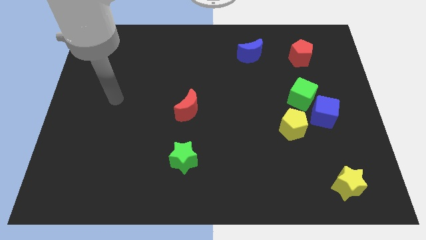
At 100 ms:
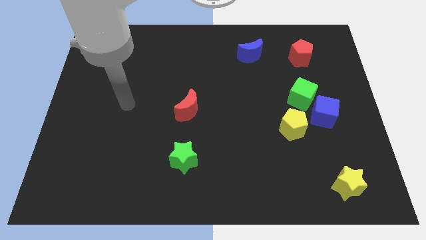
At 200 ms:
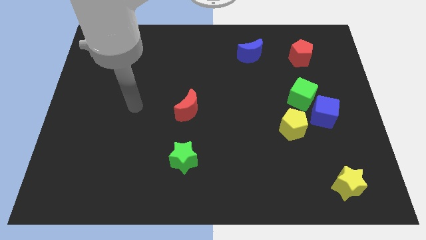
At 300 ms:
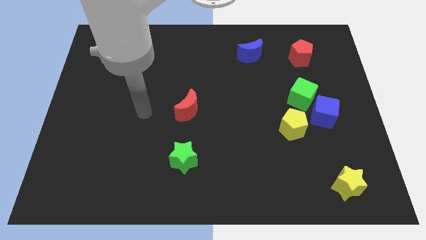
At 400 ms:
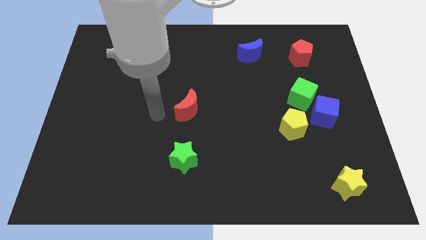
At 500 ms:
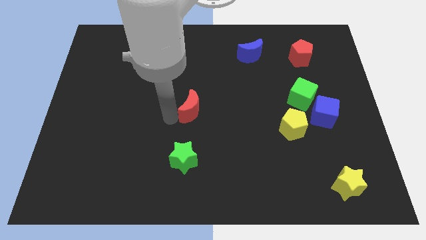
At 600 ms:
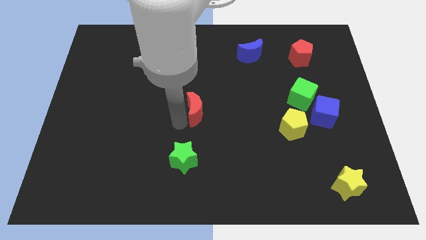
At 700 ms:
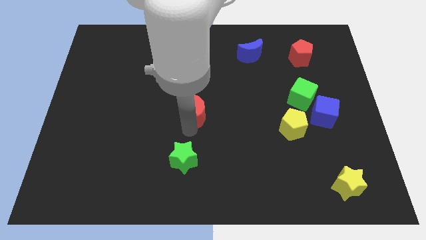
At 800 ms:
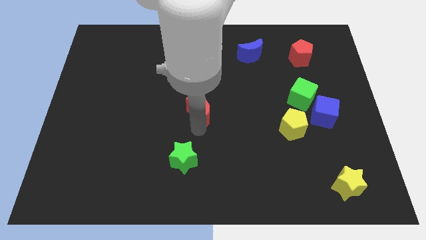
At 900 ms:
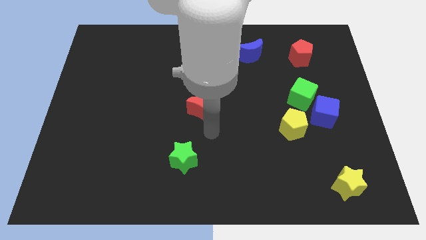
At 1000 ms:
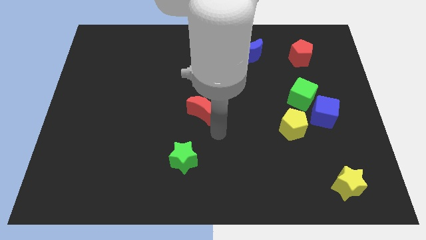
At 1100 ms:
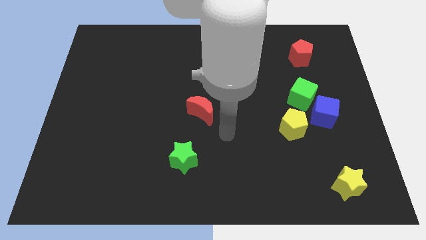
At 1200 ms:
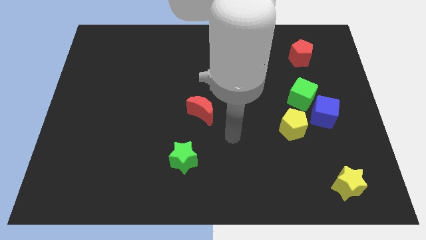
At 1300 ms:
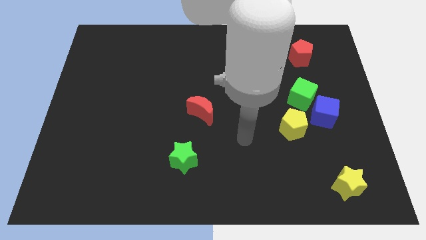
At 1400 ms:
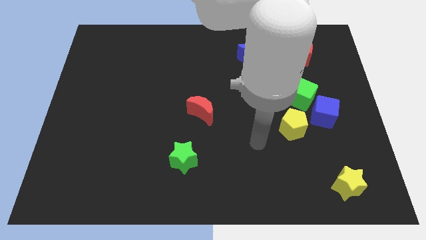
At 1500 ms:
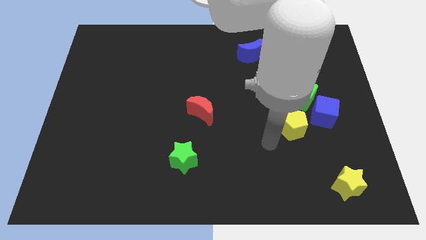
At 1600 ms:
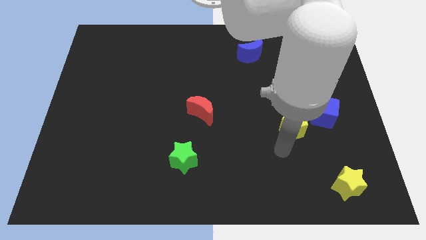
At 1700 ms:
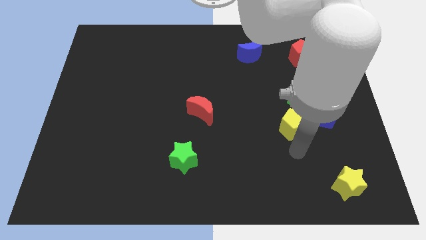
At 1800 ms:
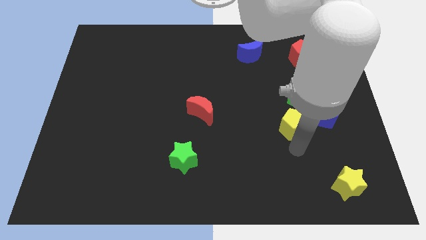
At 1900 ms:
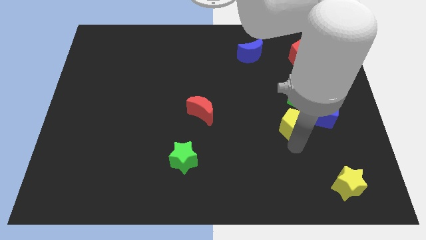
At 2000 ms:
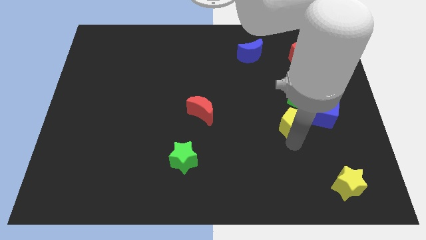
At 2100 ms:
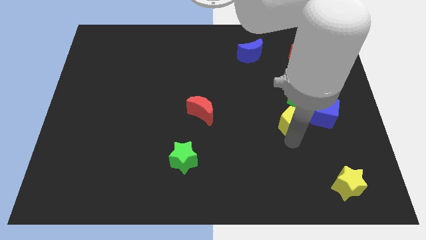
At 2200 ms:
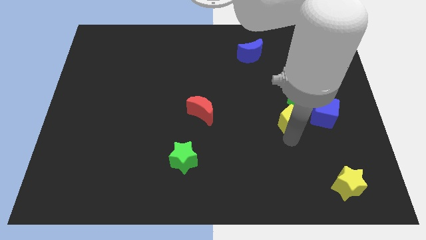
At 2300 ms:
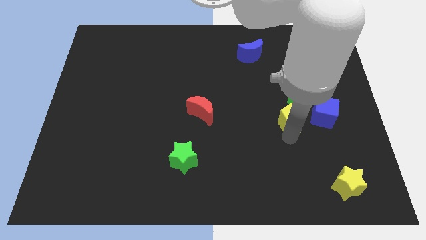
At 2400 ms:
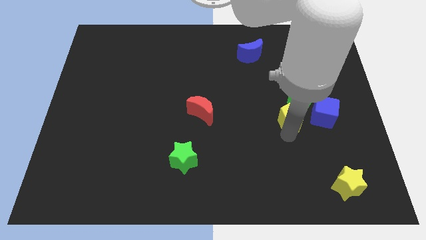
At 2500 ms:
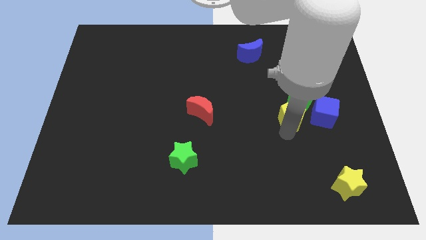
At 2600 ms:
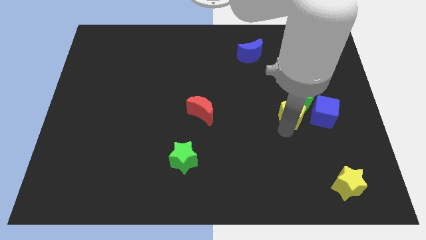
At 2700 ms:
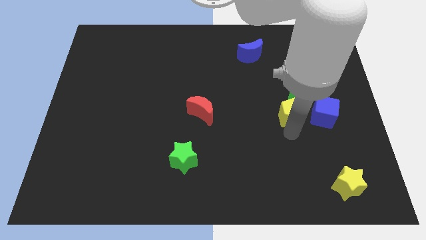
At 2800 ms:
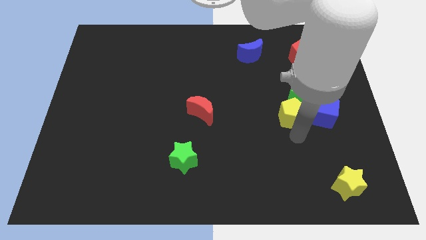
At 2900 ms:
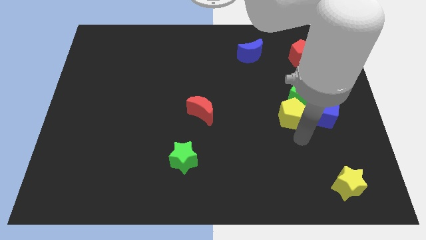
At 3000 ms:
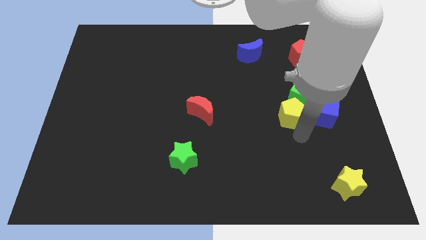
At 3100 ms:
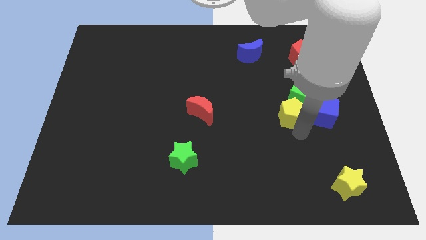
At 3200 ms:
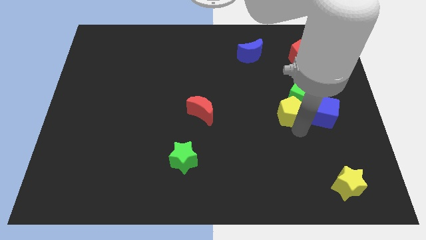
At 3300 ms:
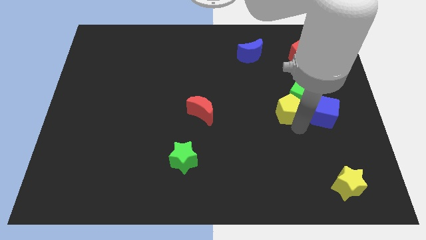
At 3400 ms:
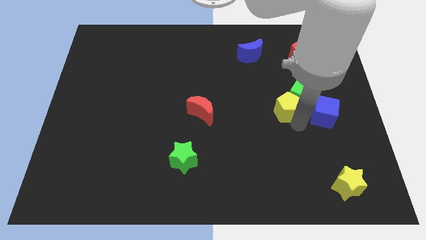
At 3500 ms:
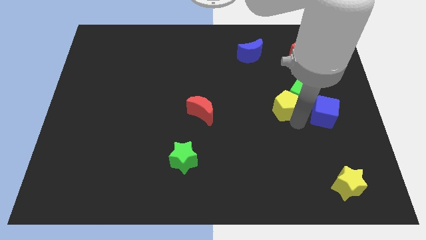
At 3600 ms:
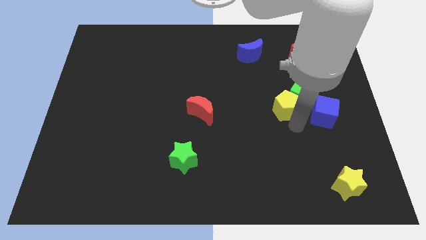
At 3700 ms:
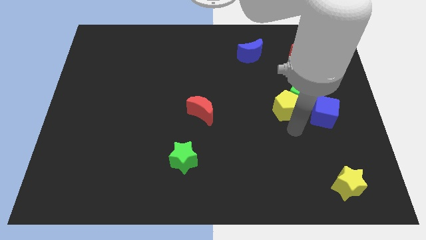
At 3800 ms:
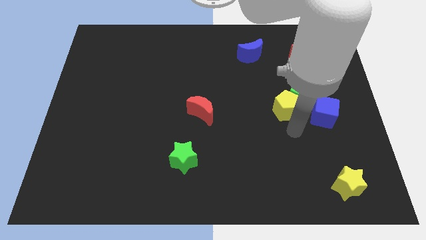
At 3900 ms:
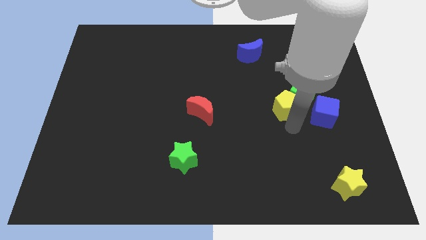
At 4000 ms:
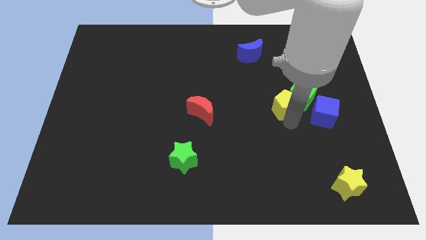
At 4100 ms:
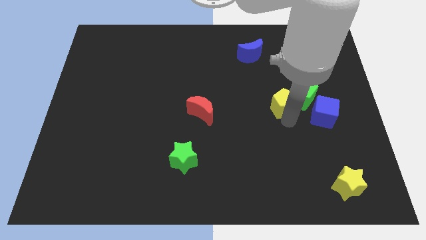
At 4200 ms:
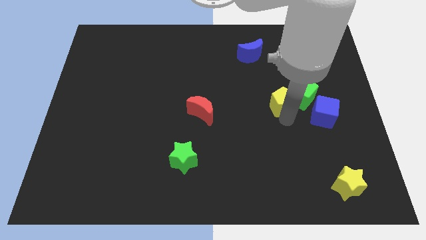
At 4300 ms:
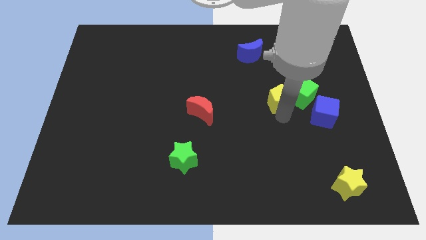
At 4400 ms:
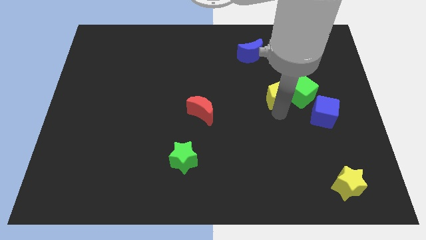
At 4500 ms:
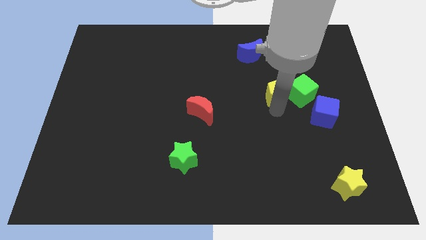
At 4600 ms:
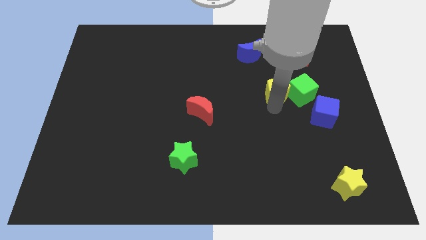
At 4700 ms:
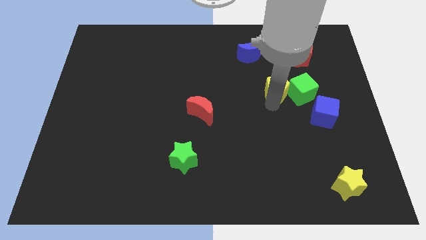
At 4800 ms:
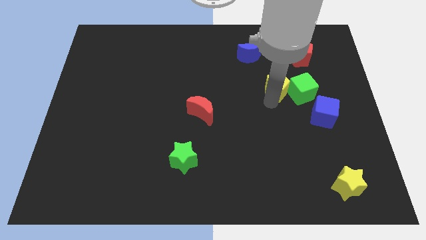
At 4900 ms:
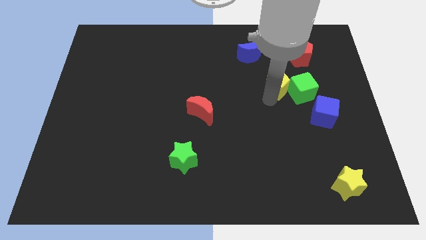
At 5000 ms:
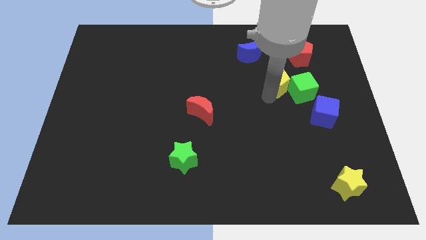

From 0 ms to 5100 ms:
slide the yellow pentagon to the bottom left of the red pentagon
